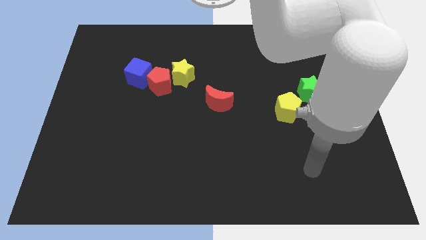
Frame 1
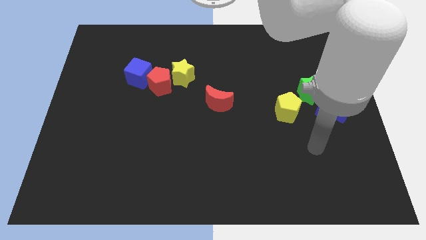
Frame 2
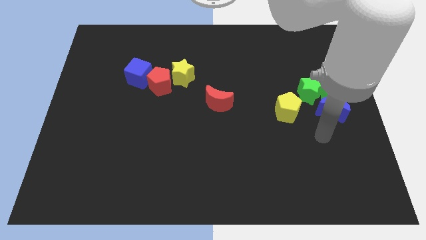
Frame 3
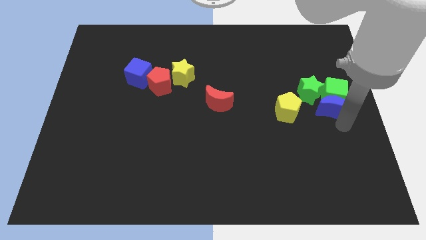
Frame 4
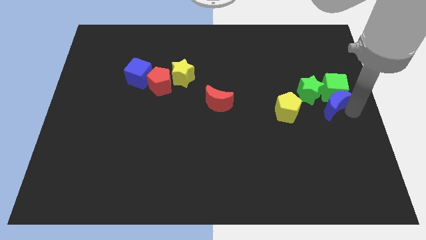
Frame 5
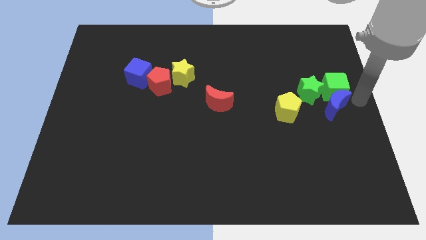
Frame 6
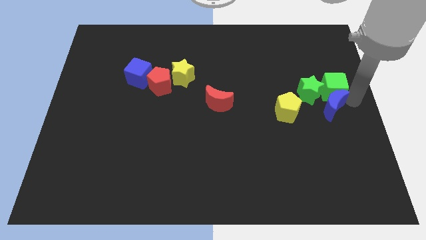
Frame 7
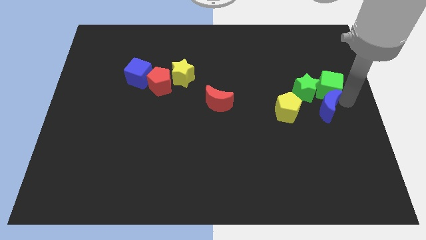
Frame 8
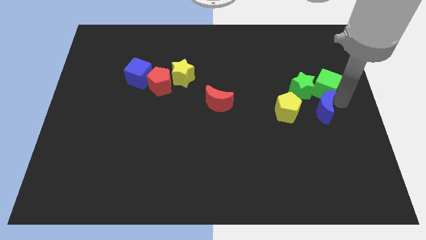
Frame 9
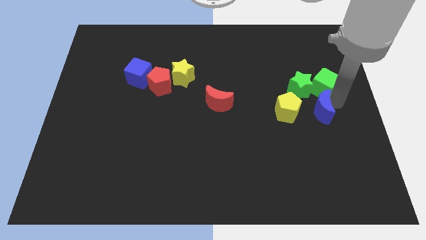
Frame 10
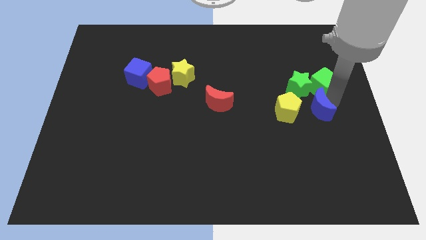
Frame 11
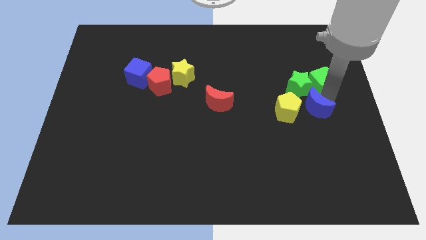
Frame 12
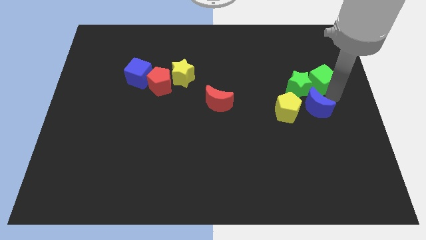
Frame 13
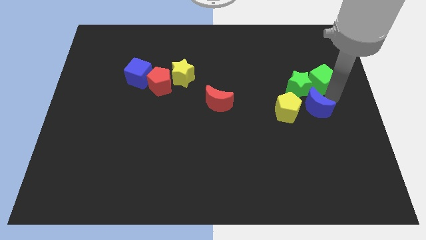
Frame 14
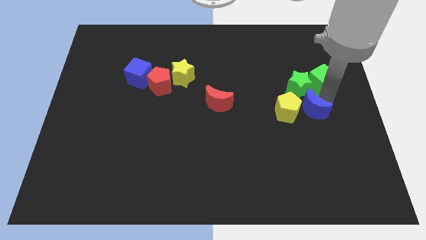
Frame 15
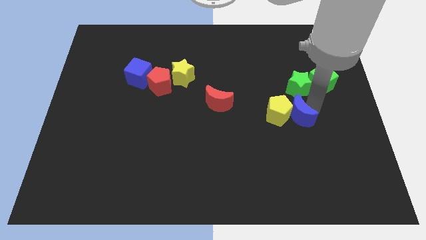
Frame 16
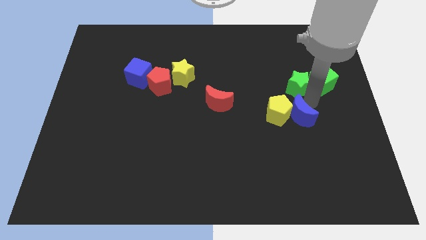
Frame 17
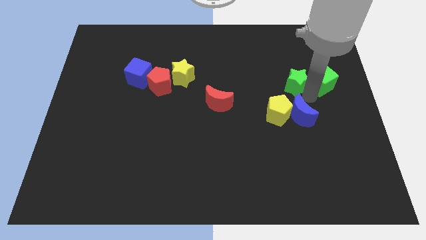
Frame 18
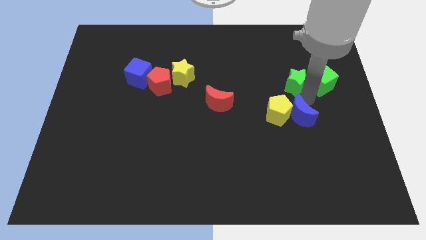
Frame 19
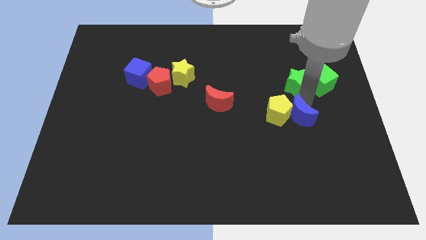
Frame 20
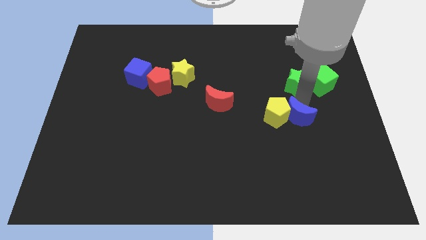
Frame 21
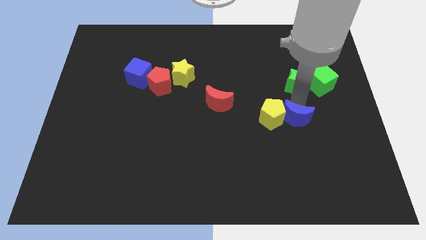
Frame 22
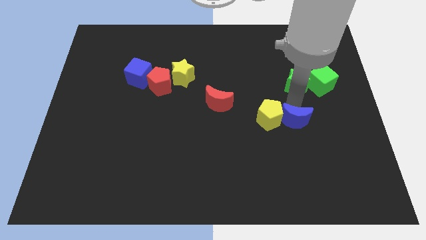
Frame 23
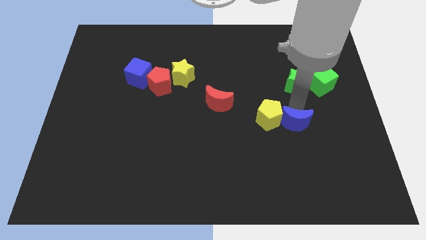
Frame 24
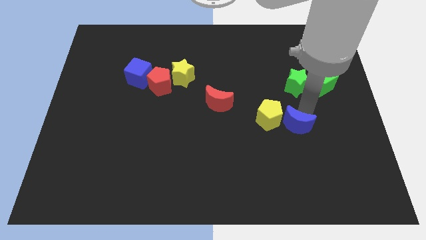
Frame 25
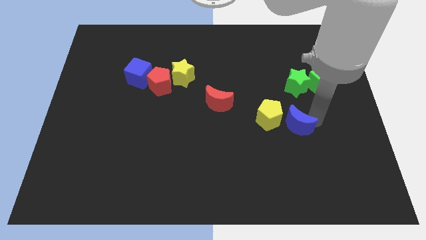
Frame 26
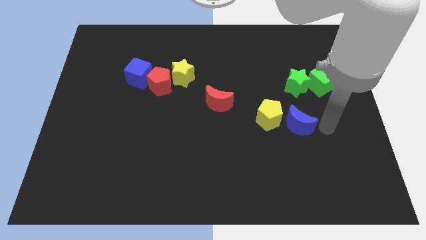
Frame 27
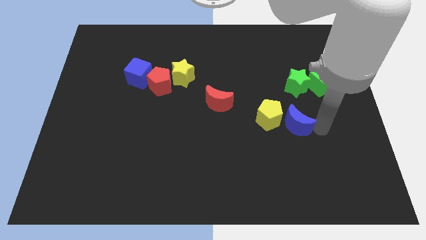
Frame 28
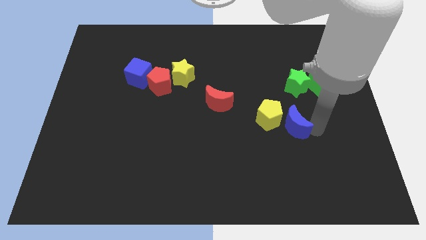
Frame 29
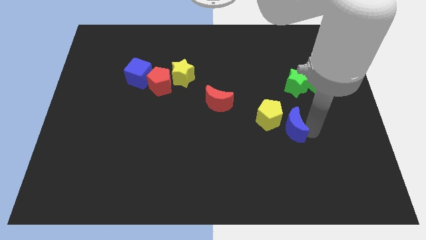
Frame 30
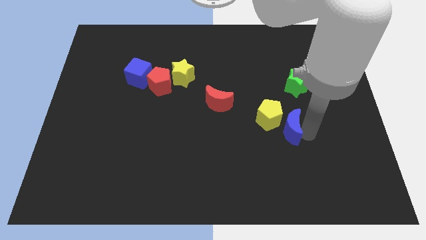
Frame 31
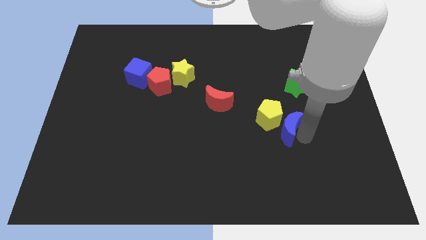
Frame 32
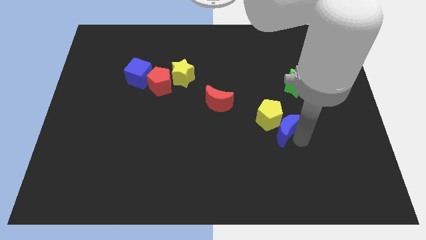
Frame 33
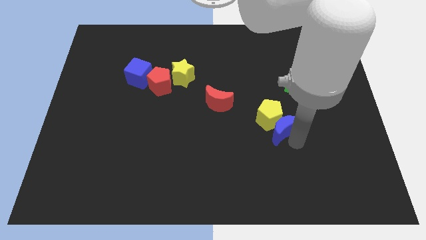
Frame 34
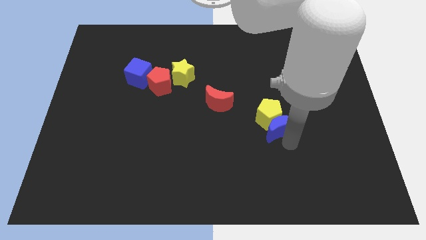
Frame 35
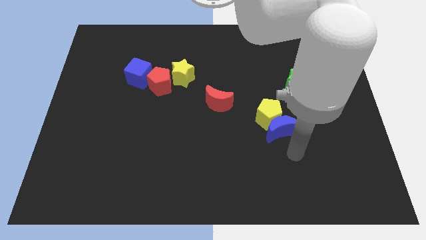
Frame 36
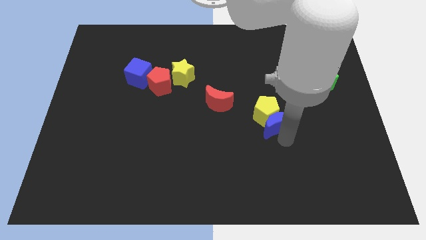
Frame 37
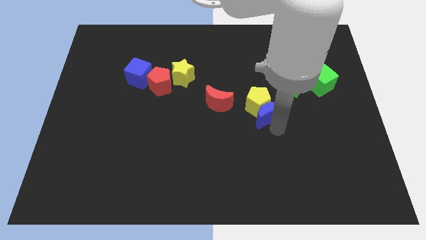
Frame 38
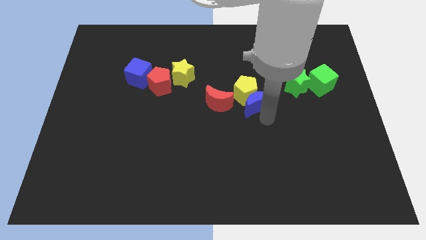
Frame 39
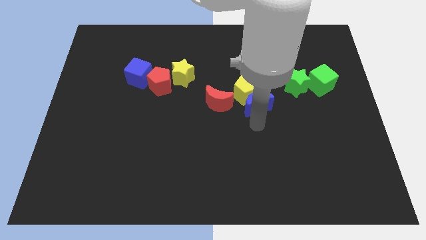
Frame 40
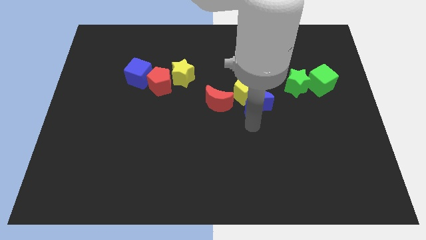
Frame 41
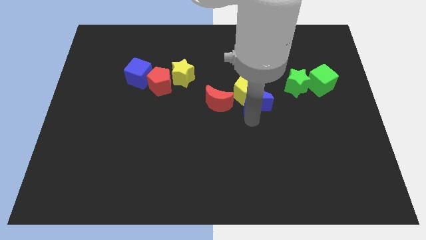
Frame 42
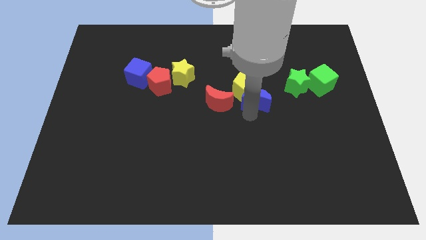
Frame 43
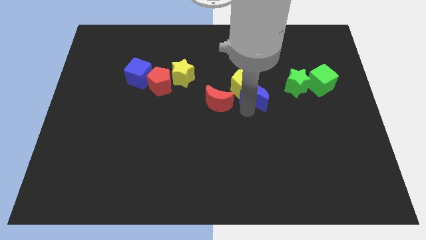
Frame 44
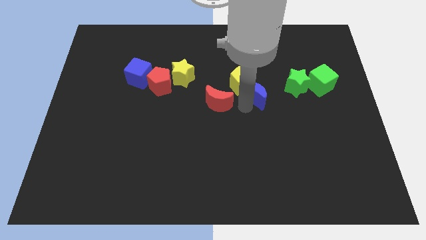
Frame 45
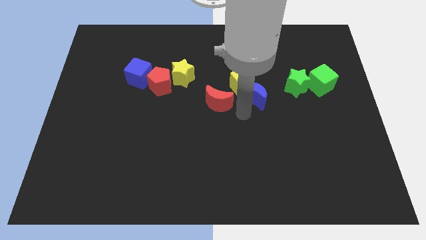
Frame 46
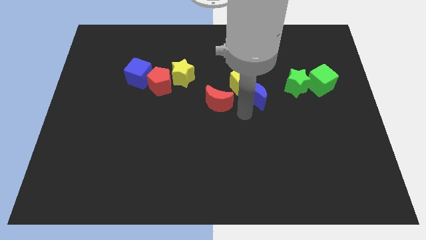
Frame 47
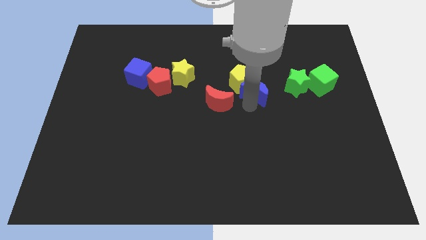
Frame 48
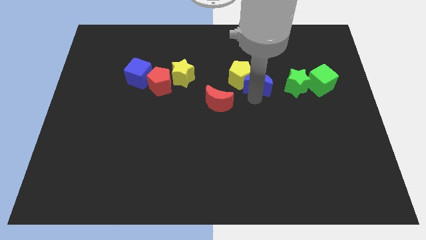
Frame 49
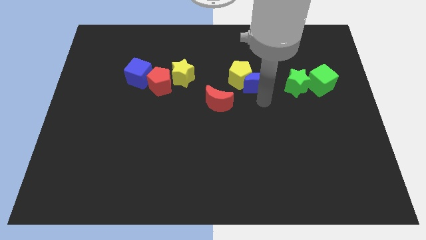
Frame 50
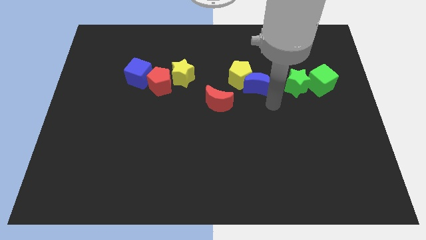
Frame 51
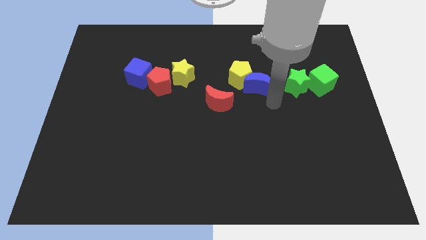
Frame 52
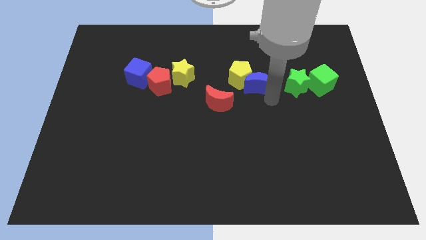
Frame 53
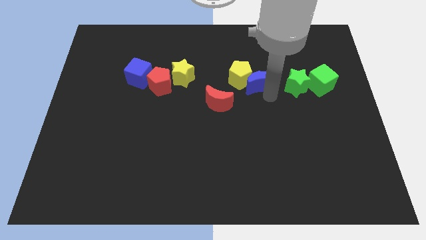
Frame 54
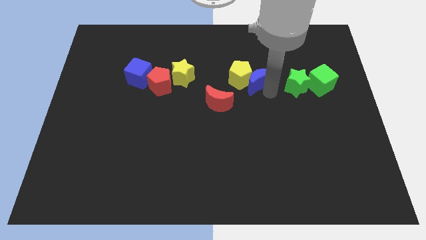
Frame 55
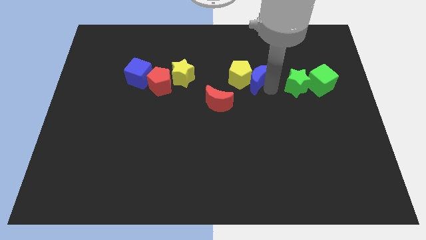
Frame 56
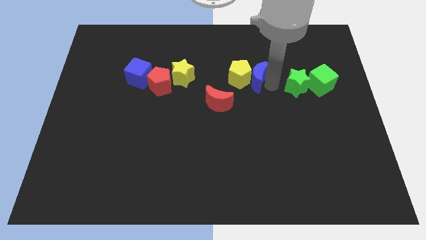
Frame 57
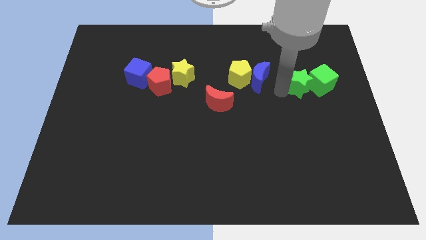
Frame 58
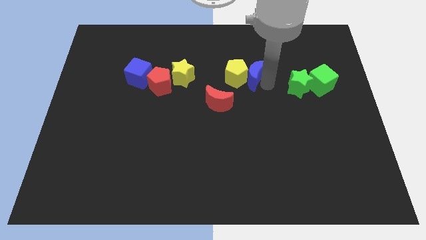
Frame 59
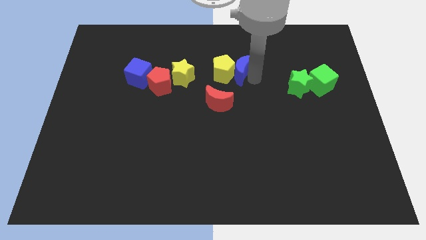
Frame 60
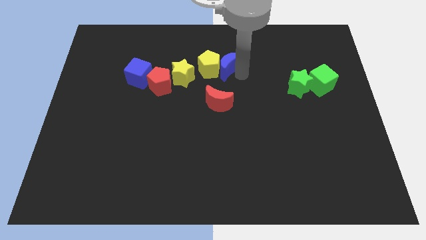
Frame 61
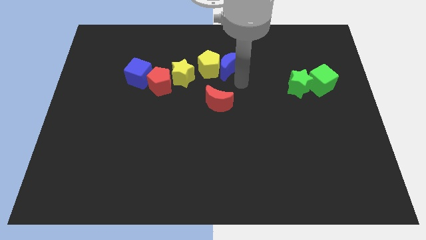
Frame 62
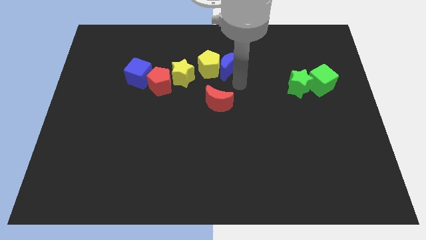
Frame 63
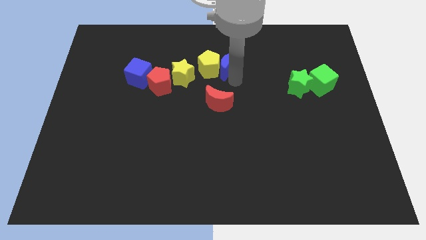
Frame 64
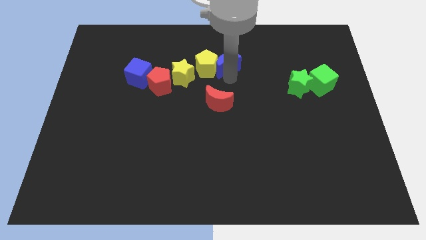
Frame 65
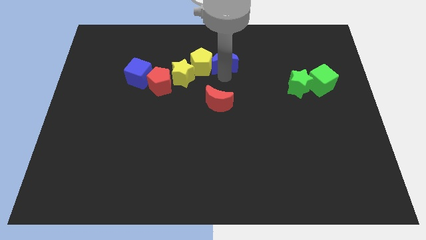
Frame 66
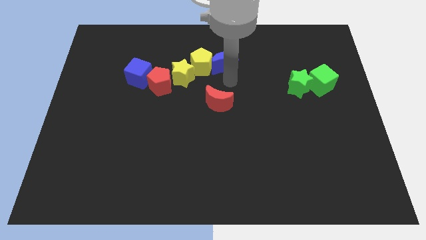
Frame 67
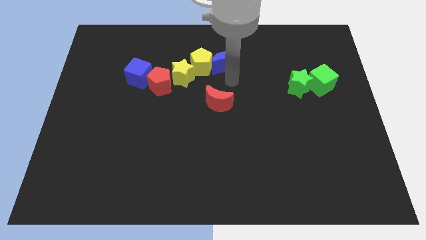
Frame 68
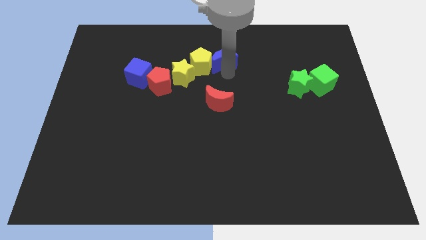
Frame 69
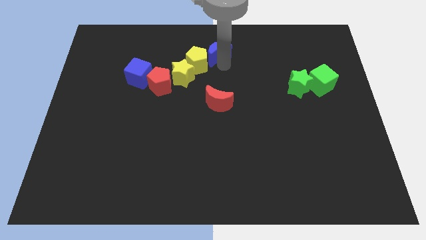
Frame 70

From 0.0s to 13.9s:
slide the blue moon to the towards your base

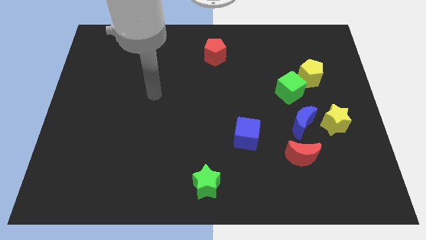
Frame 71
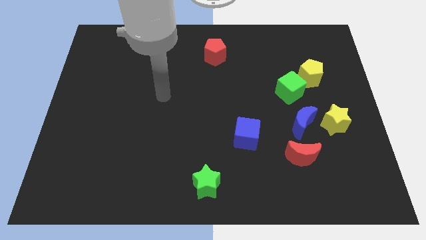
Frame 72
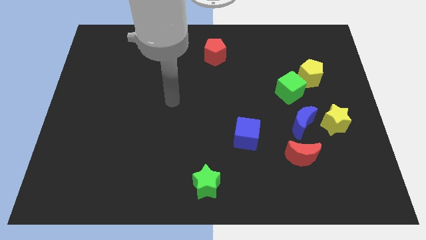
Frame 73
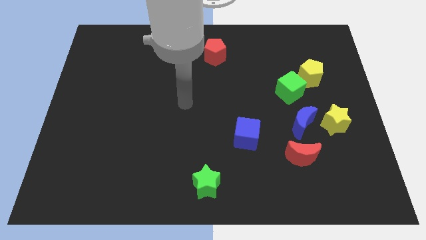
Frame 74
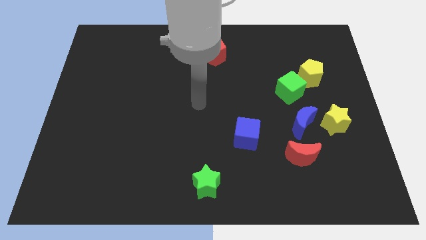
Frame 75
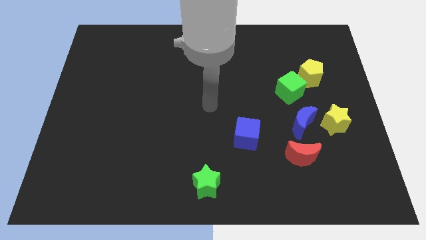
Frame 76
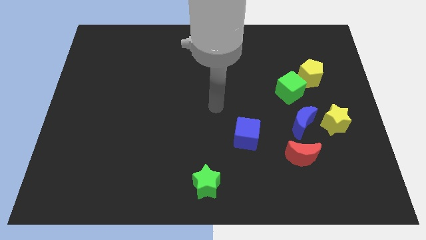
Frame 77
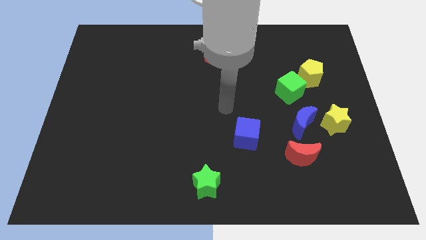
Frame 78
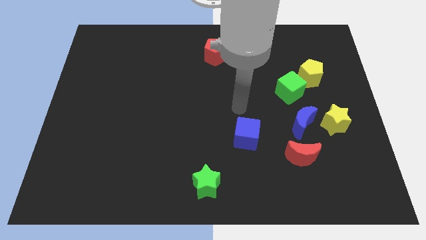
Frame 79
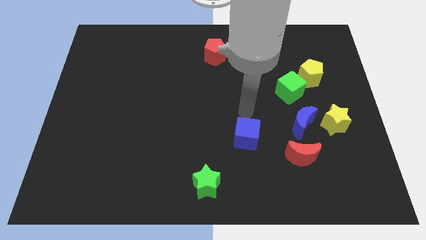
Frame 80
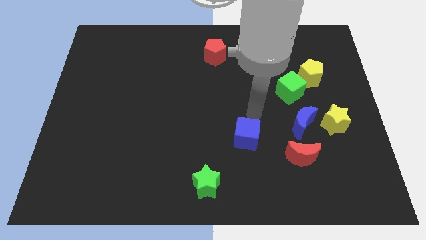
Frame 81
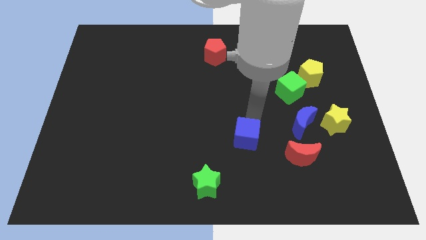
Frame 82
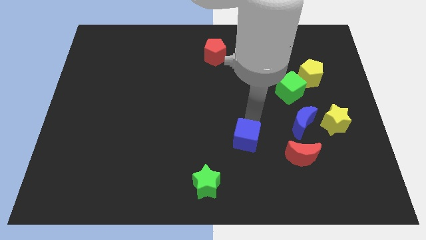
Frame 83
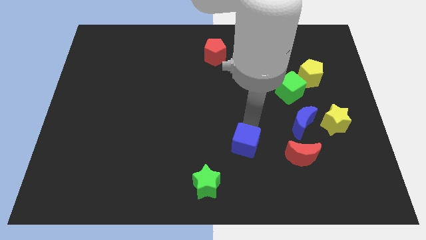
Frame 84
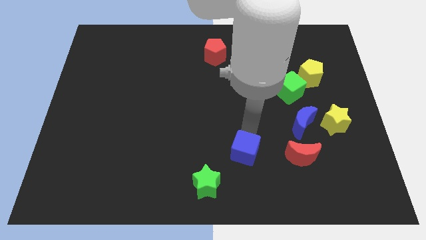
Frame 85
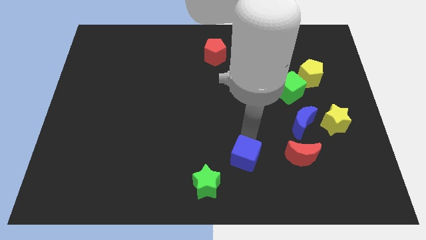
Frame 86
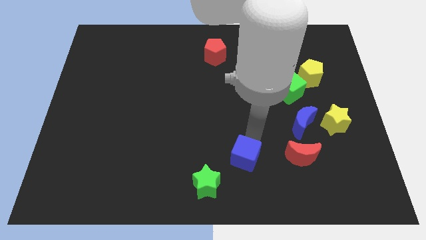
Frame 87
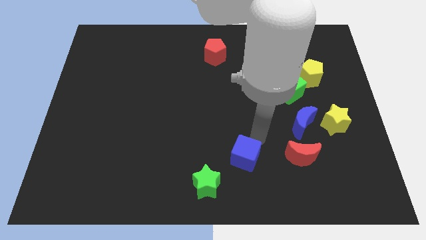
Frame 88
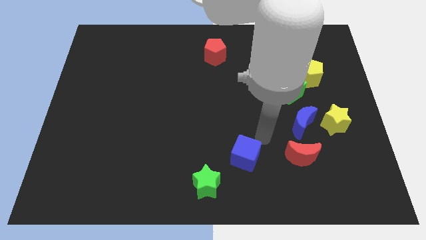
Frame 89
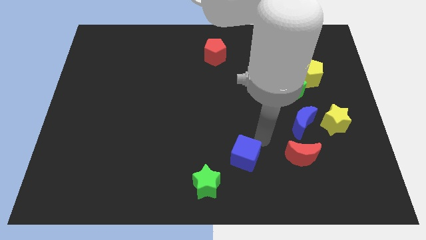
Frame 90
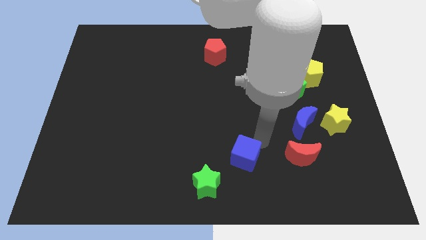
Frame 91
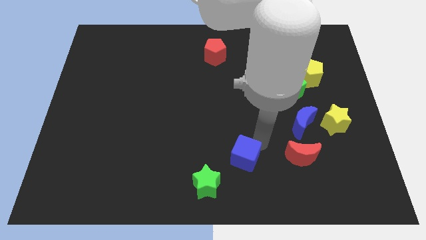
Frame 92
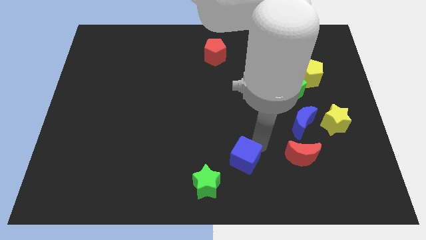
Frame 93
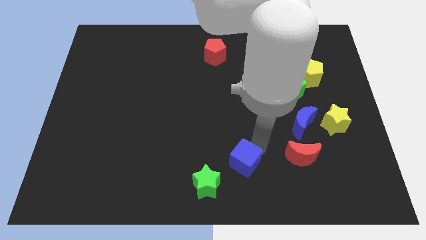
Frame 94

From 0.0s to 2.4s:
move the blue cube to the bottom
